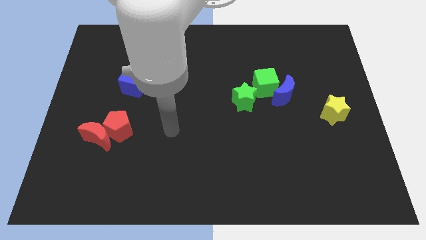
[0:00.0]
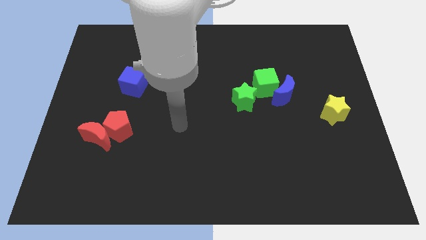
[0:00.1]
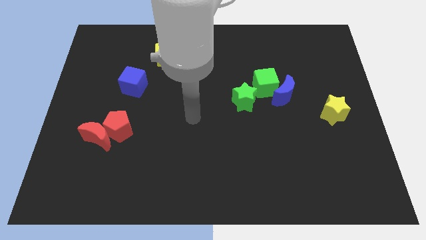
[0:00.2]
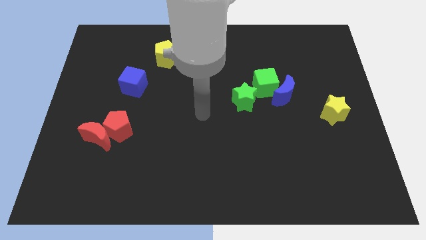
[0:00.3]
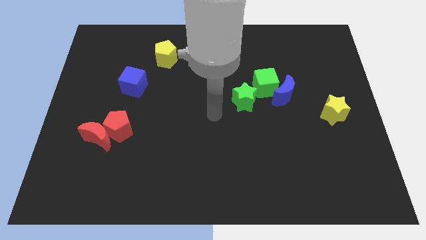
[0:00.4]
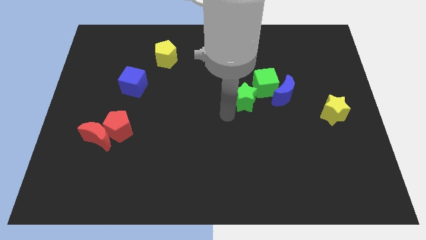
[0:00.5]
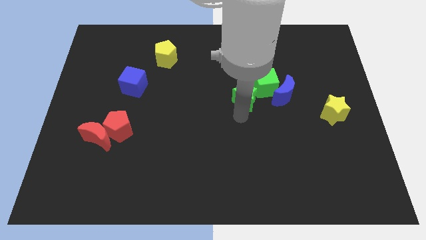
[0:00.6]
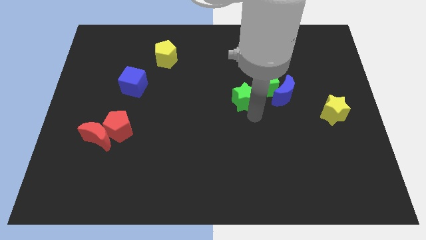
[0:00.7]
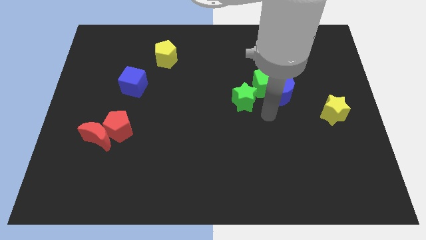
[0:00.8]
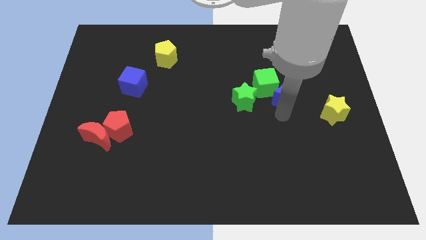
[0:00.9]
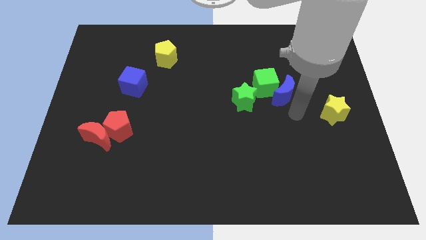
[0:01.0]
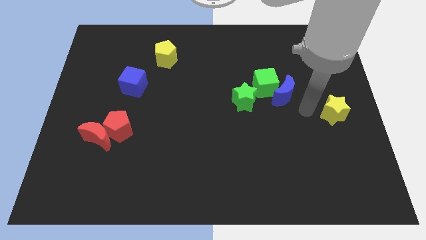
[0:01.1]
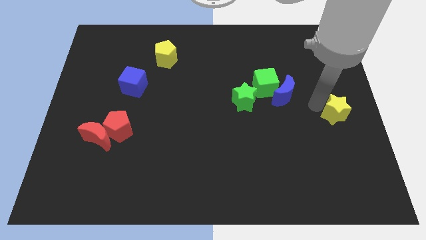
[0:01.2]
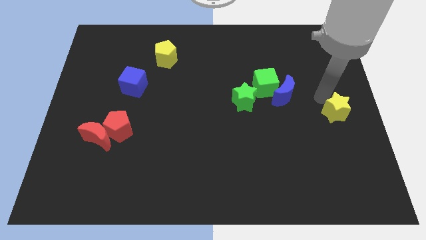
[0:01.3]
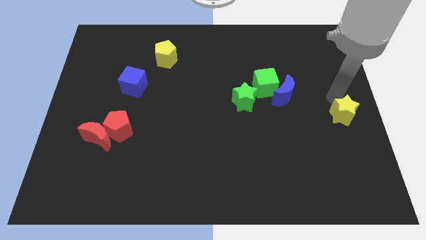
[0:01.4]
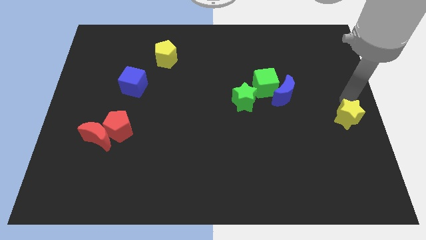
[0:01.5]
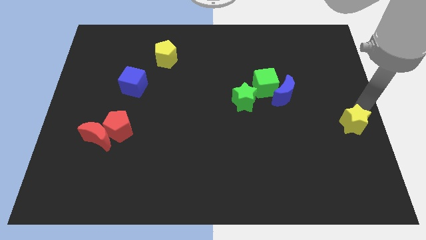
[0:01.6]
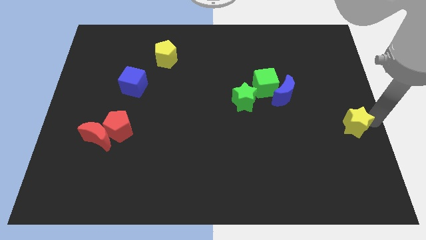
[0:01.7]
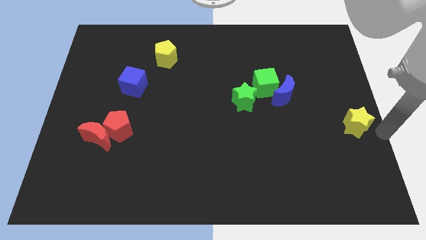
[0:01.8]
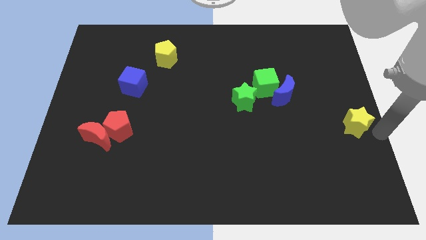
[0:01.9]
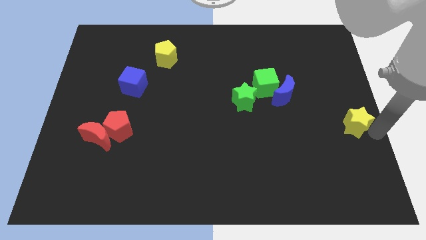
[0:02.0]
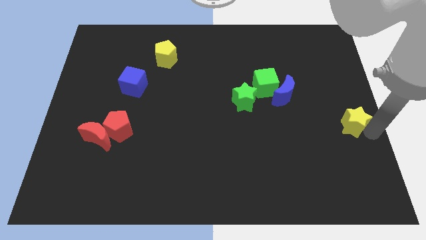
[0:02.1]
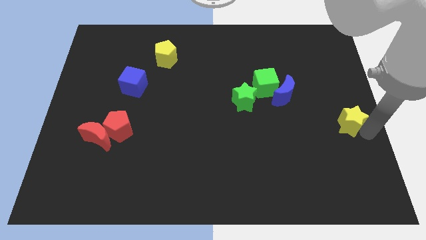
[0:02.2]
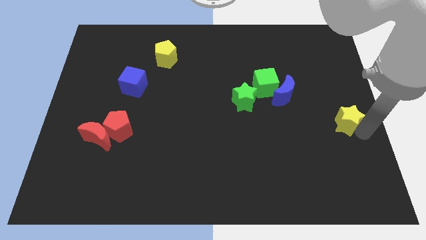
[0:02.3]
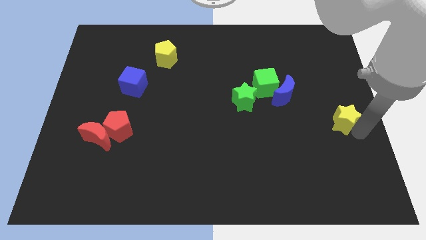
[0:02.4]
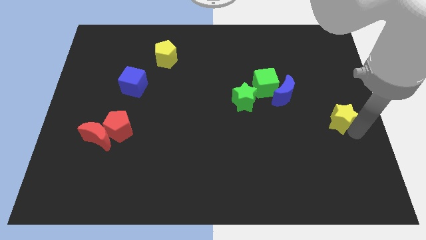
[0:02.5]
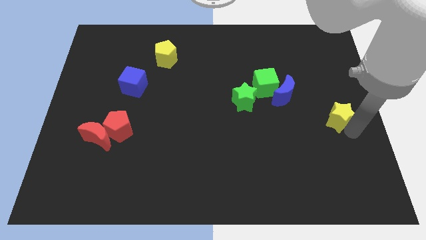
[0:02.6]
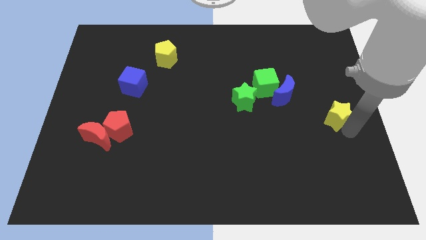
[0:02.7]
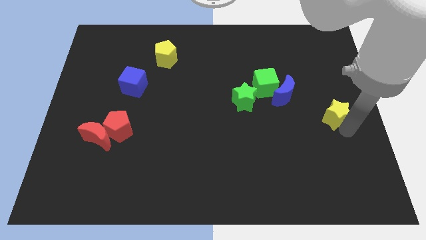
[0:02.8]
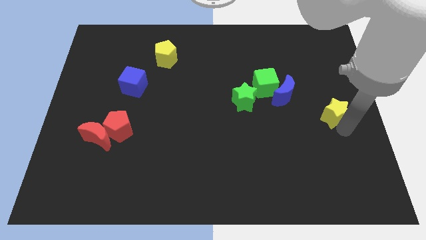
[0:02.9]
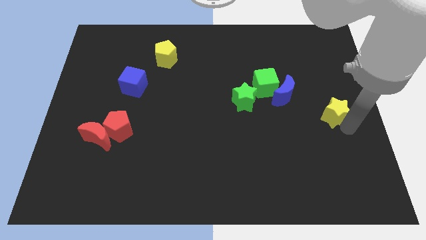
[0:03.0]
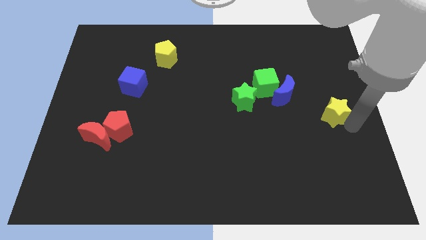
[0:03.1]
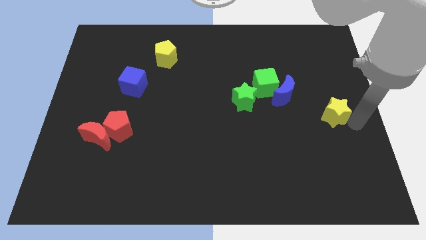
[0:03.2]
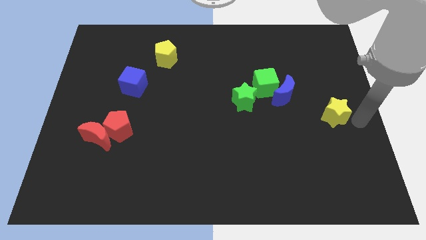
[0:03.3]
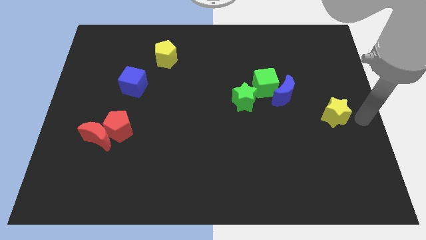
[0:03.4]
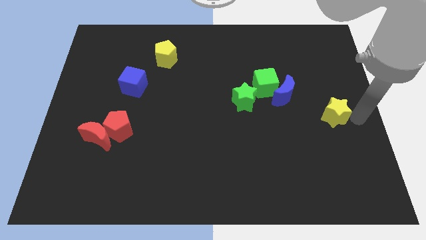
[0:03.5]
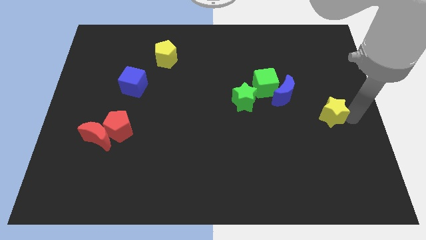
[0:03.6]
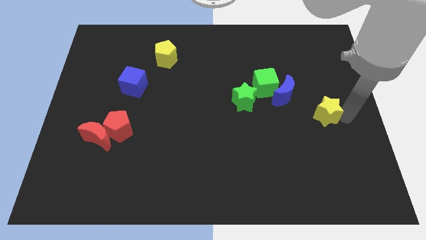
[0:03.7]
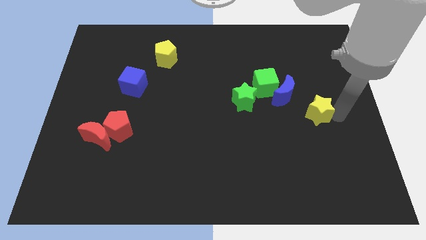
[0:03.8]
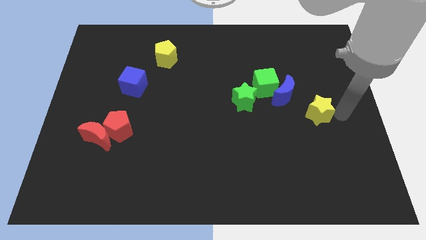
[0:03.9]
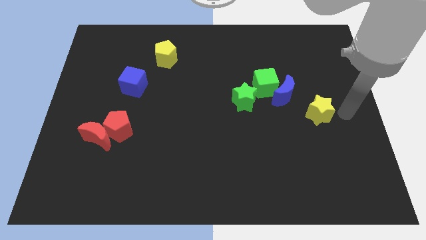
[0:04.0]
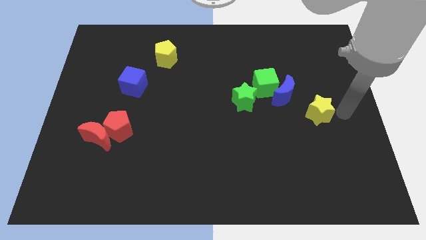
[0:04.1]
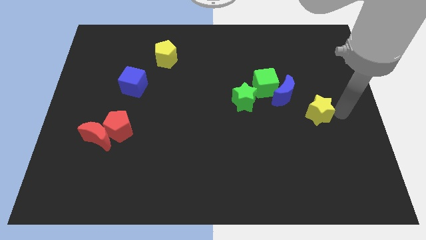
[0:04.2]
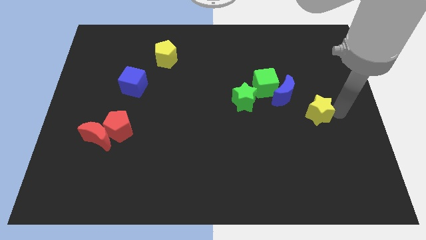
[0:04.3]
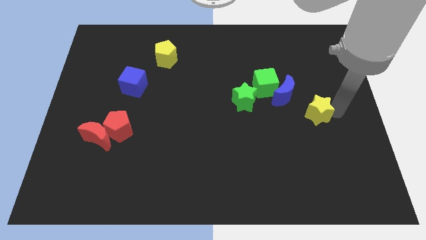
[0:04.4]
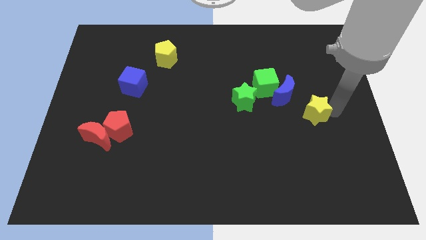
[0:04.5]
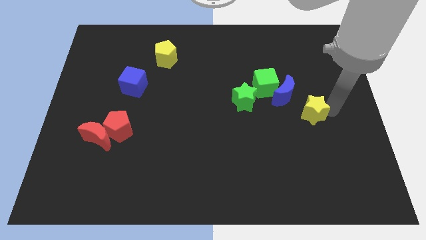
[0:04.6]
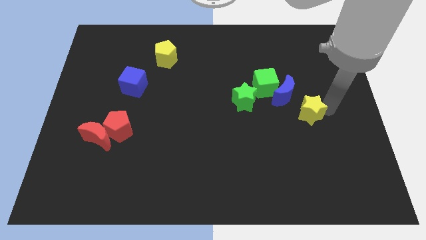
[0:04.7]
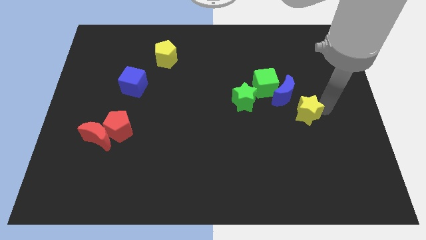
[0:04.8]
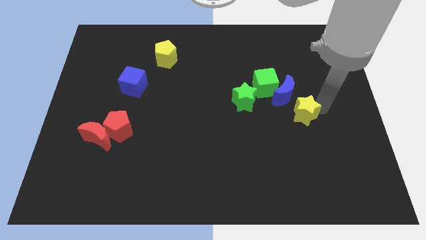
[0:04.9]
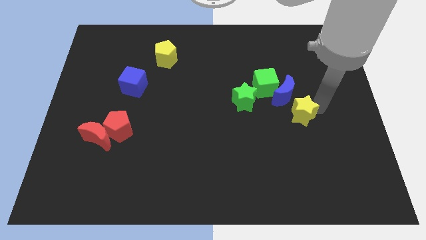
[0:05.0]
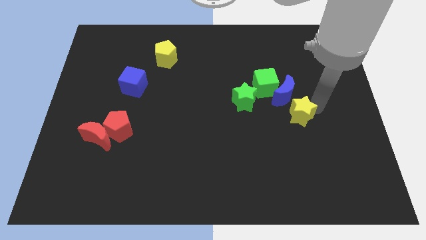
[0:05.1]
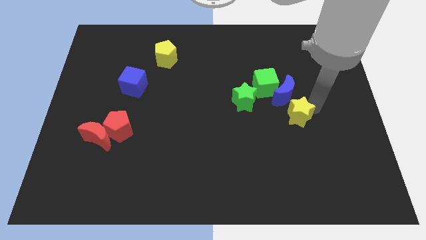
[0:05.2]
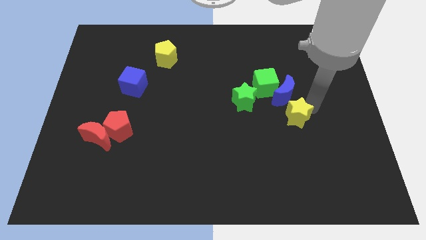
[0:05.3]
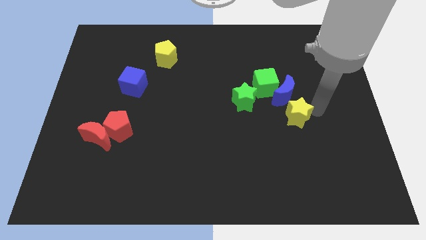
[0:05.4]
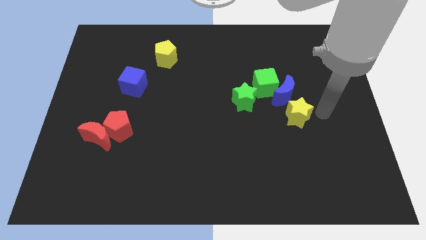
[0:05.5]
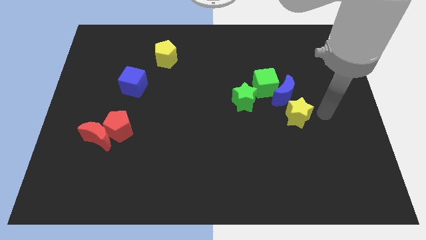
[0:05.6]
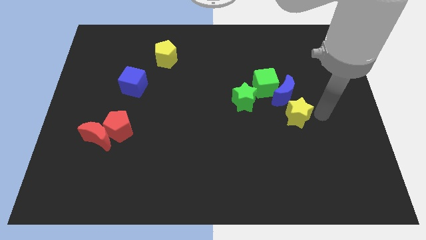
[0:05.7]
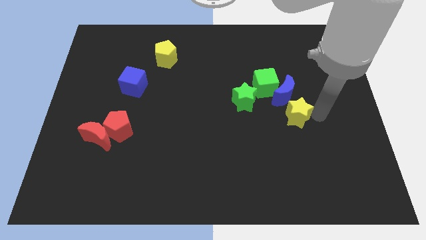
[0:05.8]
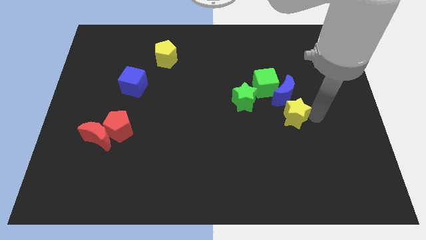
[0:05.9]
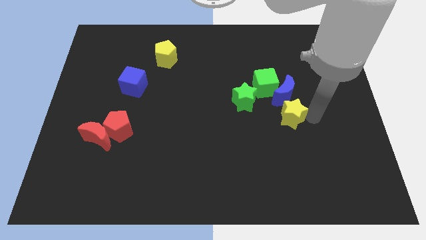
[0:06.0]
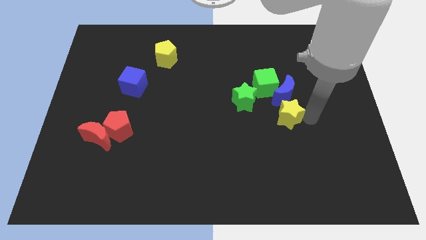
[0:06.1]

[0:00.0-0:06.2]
put the yellow star to the bottom right of the green star

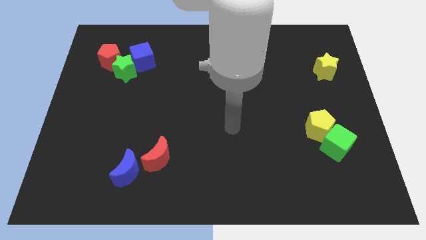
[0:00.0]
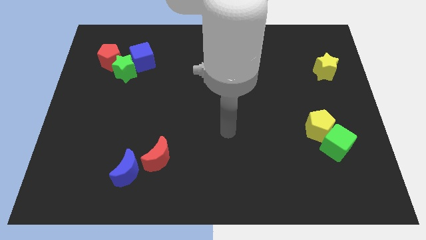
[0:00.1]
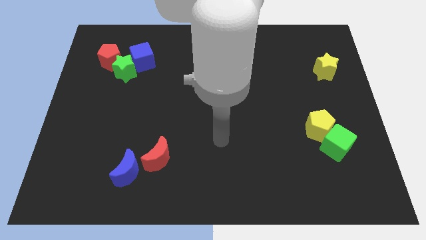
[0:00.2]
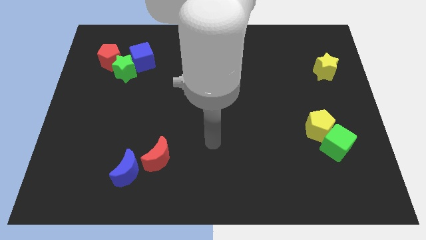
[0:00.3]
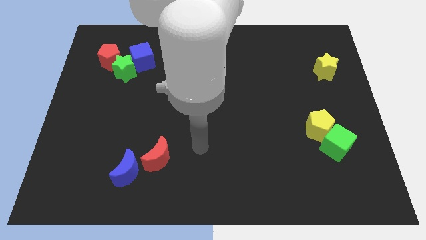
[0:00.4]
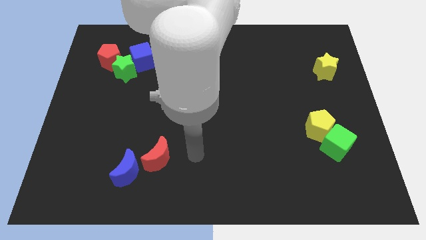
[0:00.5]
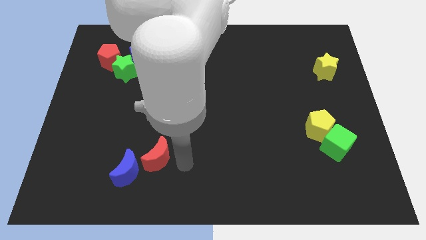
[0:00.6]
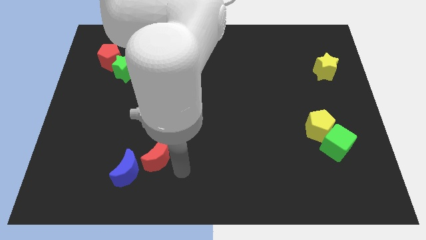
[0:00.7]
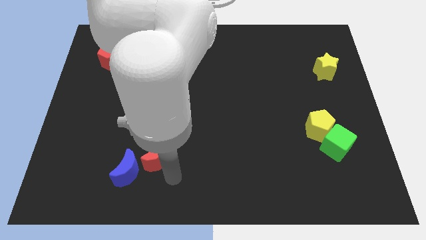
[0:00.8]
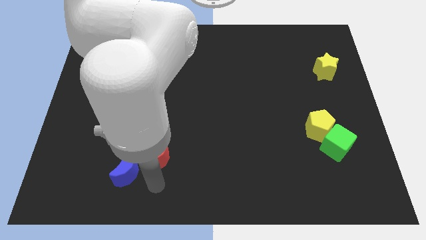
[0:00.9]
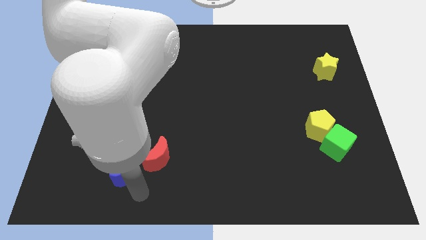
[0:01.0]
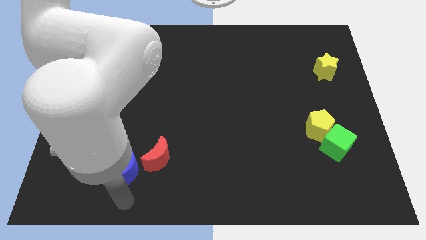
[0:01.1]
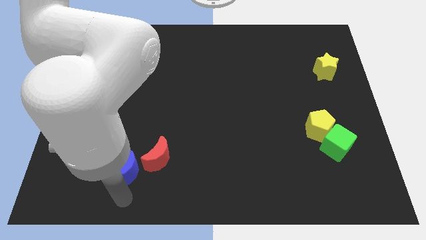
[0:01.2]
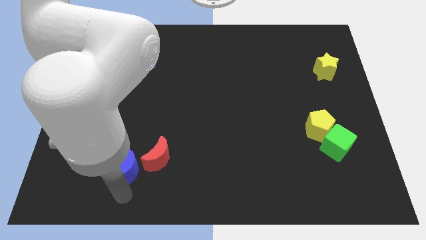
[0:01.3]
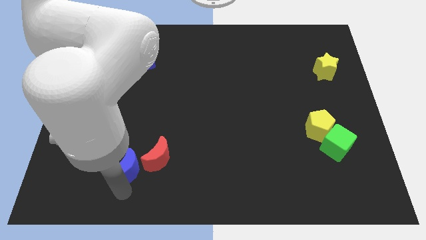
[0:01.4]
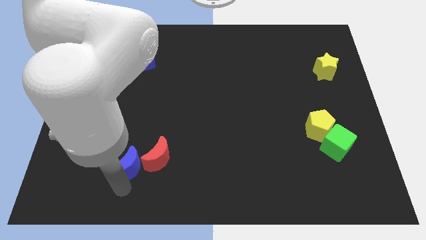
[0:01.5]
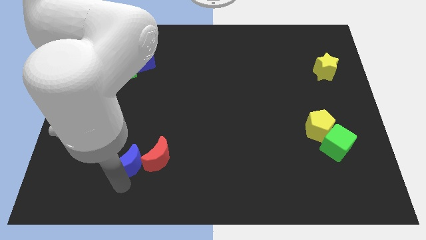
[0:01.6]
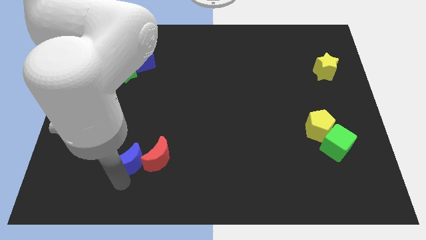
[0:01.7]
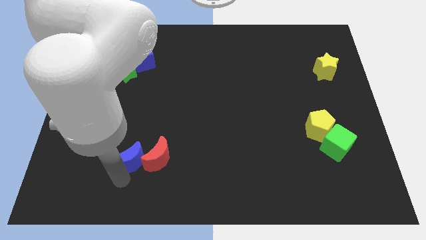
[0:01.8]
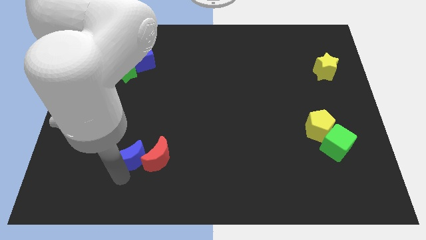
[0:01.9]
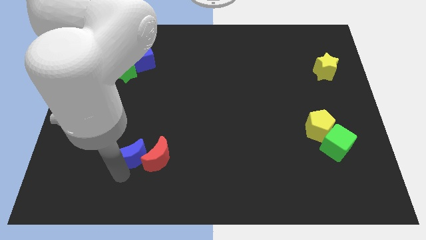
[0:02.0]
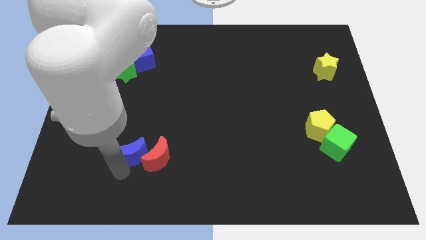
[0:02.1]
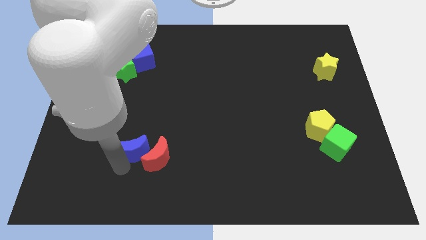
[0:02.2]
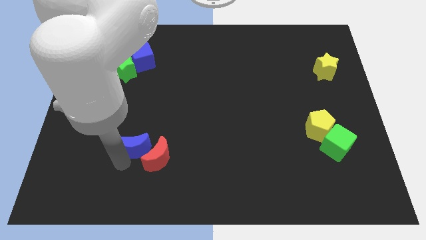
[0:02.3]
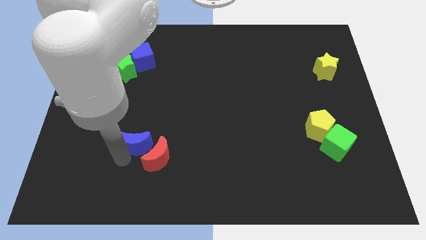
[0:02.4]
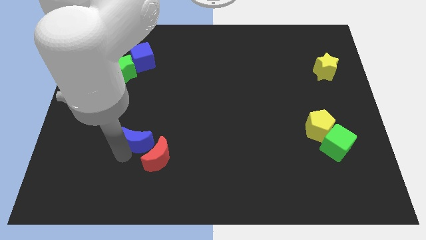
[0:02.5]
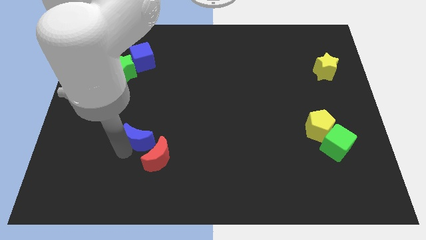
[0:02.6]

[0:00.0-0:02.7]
slide the blue moon to the top of the red moon
